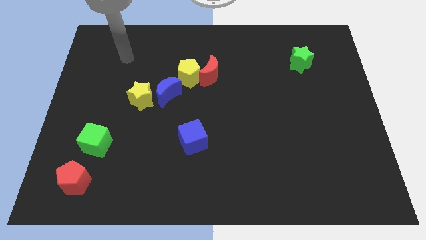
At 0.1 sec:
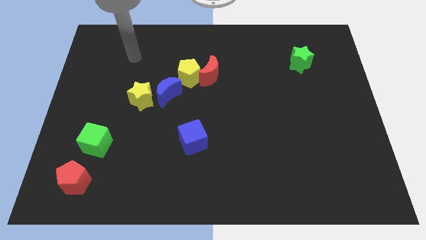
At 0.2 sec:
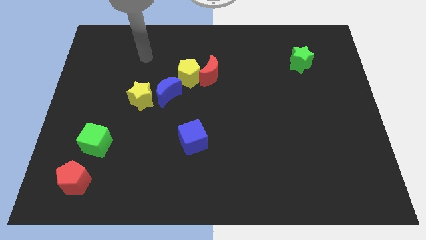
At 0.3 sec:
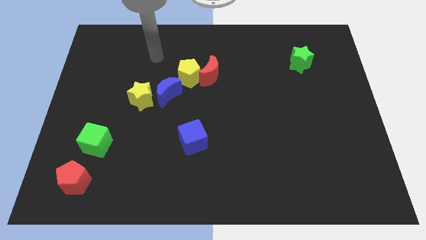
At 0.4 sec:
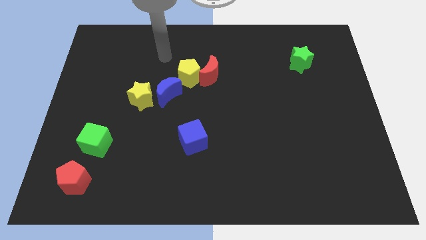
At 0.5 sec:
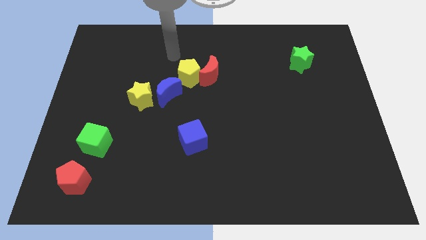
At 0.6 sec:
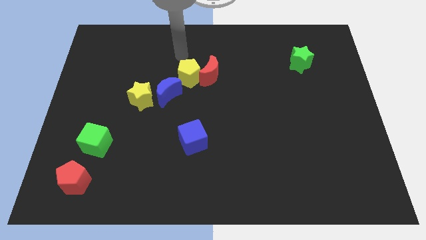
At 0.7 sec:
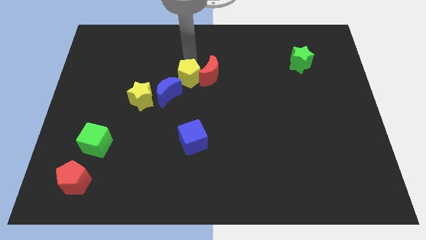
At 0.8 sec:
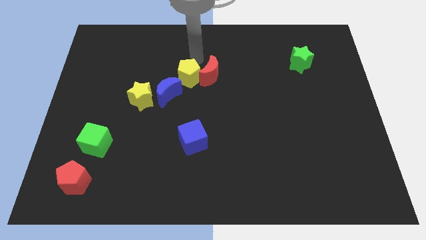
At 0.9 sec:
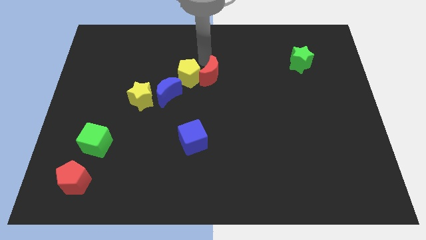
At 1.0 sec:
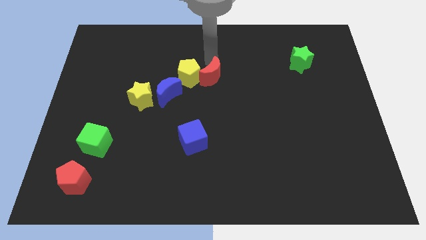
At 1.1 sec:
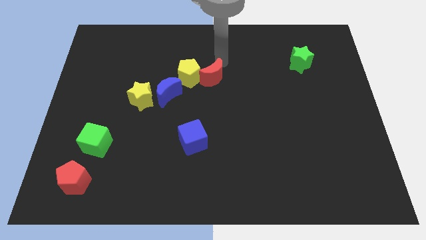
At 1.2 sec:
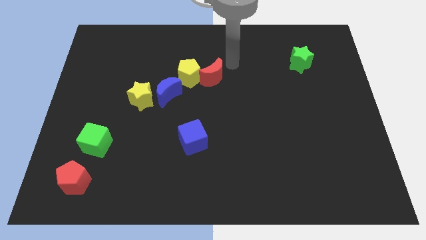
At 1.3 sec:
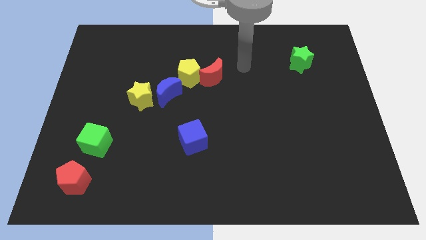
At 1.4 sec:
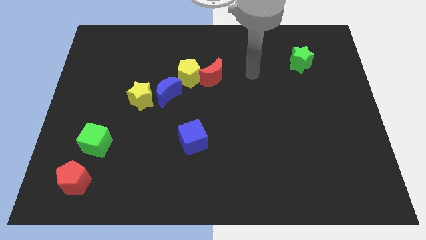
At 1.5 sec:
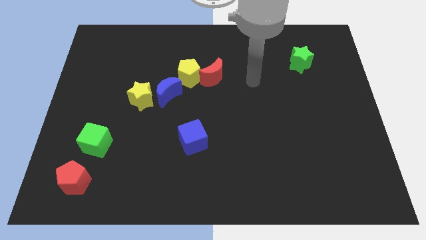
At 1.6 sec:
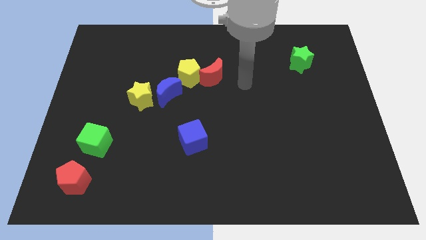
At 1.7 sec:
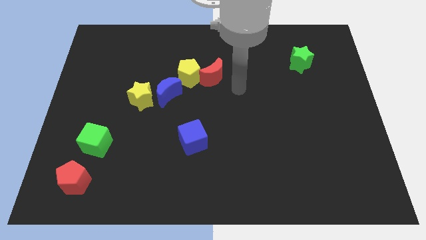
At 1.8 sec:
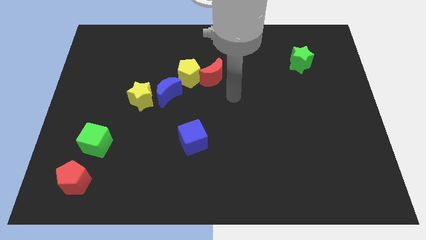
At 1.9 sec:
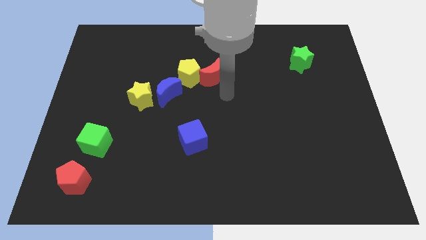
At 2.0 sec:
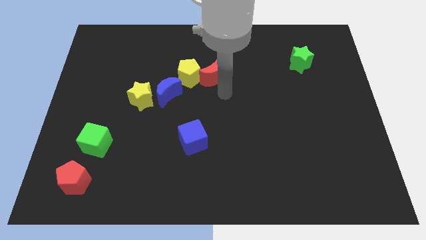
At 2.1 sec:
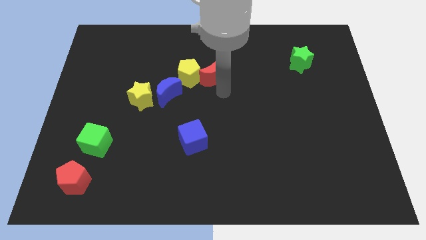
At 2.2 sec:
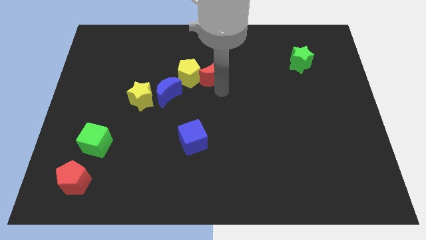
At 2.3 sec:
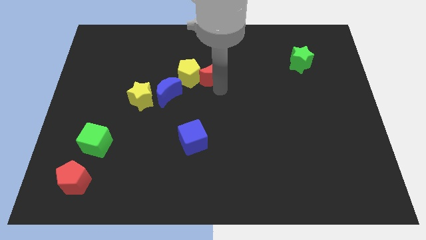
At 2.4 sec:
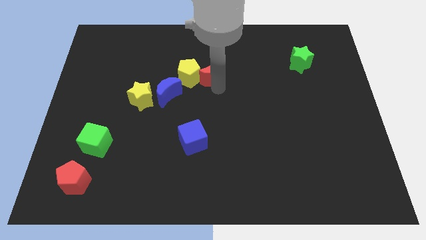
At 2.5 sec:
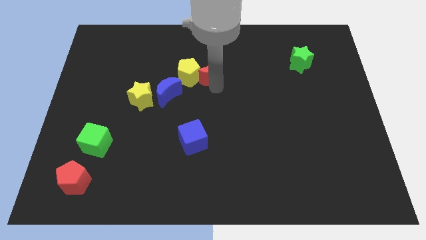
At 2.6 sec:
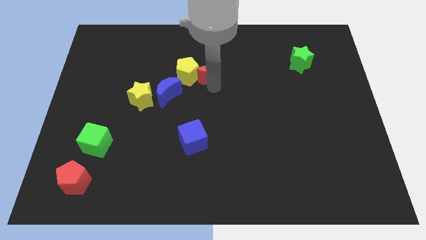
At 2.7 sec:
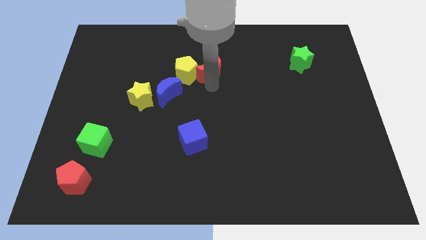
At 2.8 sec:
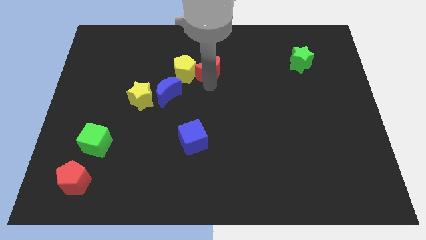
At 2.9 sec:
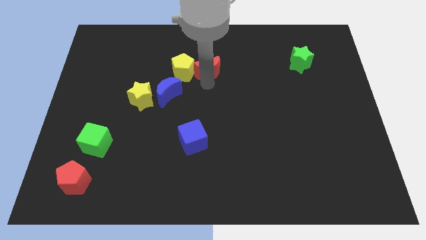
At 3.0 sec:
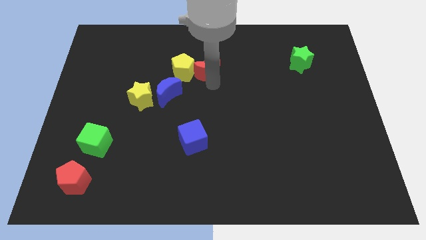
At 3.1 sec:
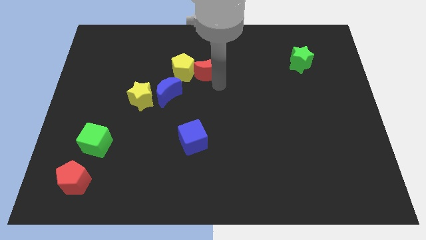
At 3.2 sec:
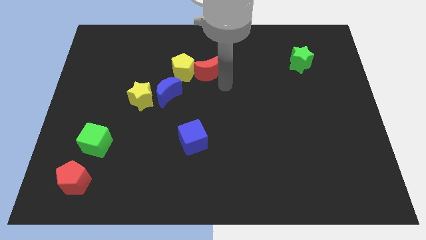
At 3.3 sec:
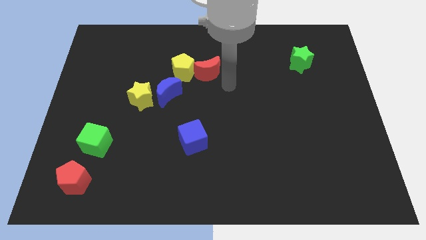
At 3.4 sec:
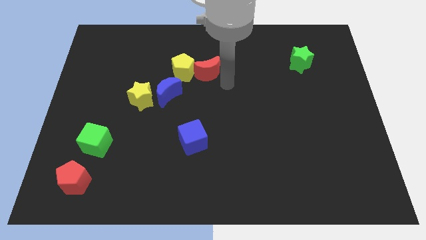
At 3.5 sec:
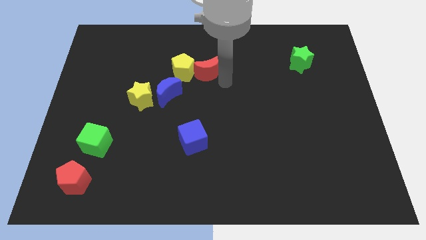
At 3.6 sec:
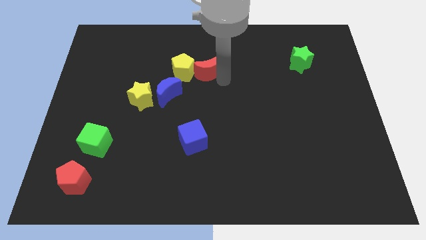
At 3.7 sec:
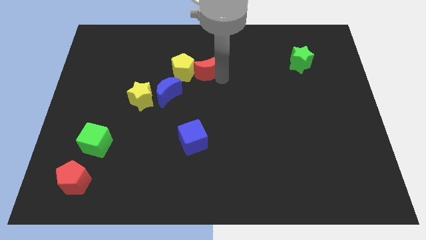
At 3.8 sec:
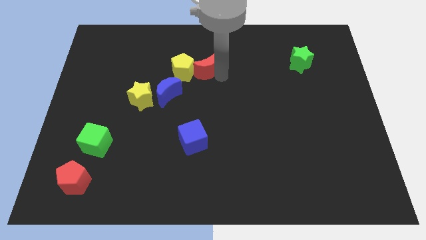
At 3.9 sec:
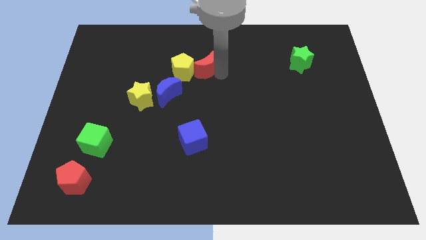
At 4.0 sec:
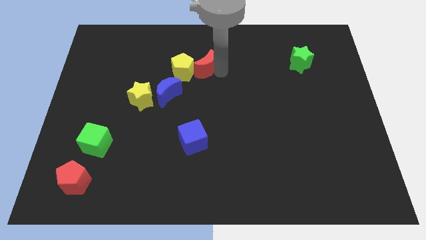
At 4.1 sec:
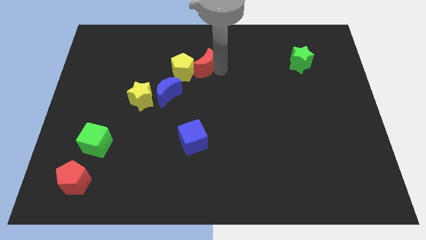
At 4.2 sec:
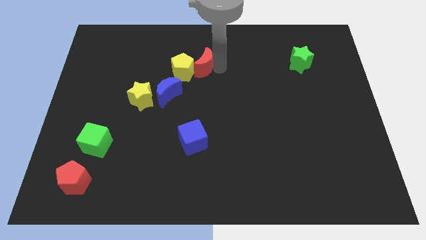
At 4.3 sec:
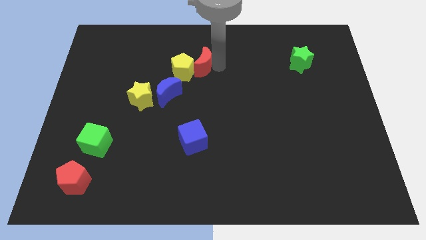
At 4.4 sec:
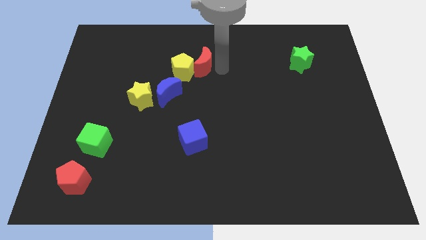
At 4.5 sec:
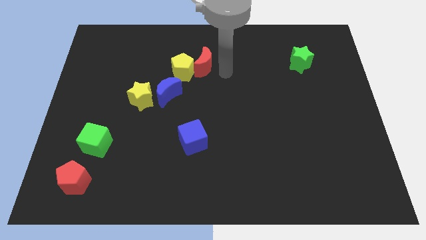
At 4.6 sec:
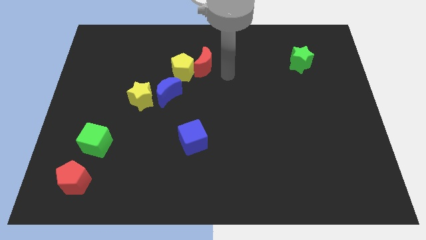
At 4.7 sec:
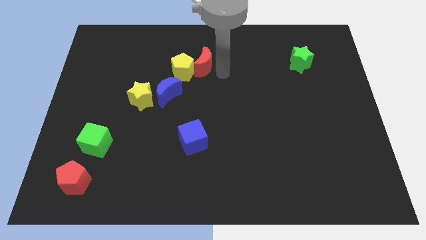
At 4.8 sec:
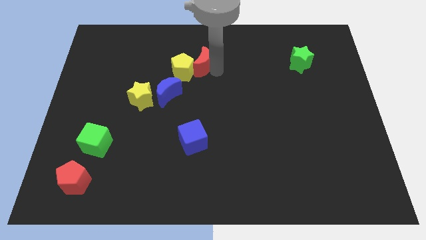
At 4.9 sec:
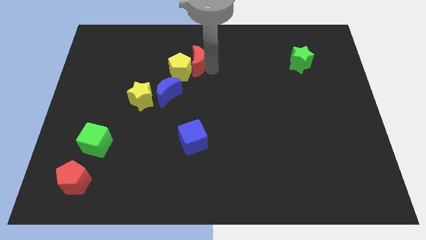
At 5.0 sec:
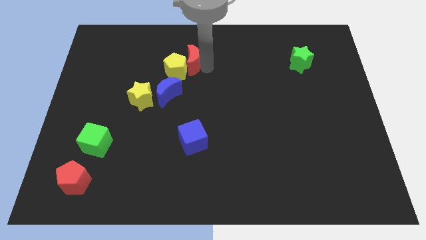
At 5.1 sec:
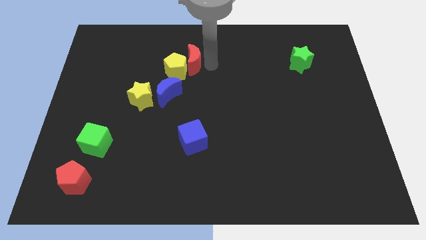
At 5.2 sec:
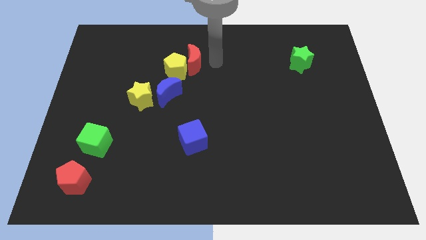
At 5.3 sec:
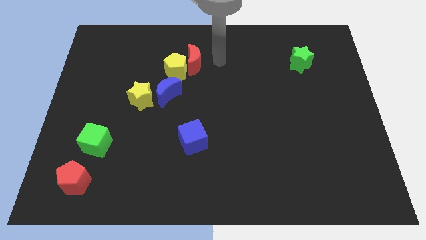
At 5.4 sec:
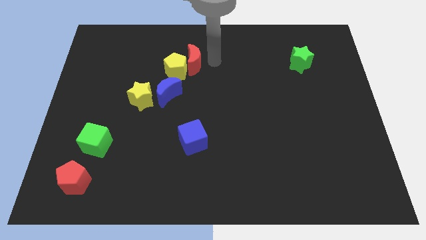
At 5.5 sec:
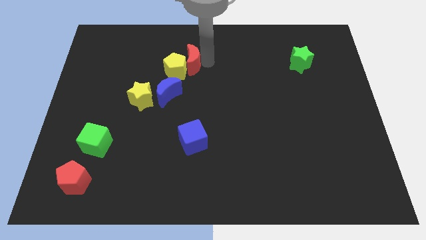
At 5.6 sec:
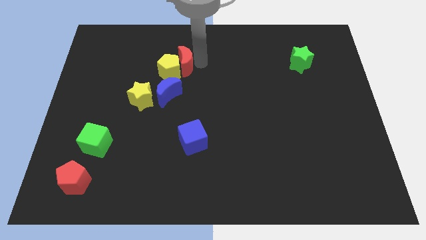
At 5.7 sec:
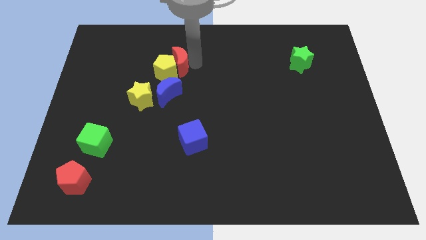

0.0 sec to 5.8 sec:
push the red moon to the left somewhat

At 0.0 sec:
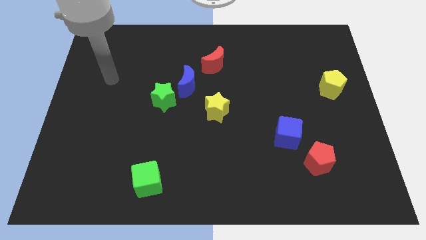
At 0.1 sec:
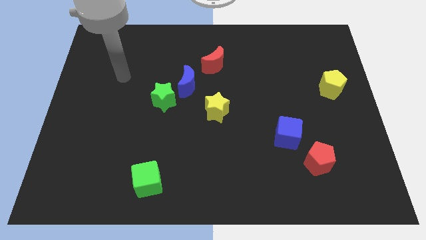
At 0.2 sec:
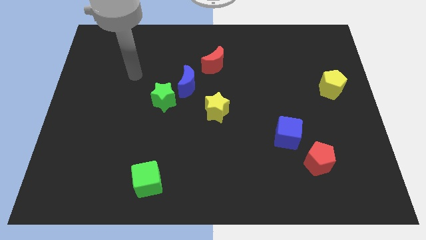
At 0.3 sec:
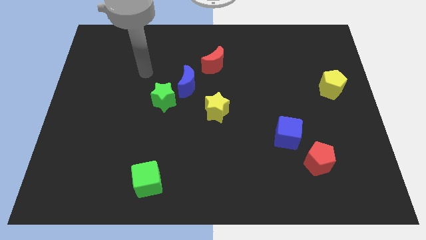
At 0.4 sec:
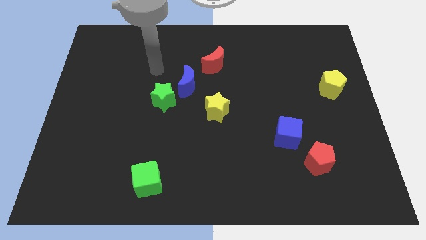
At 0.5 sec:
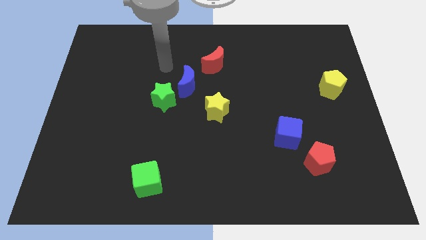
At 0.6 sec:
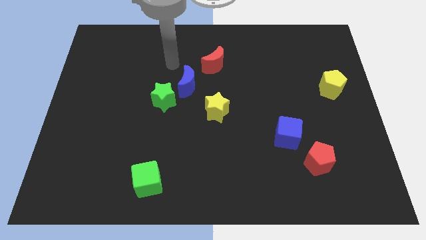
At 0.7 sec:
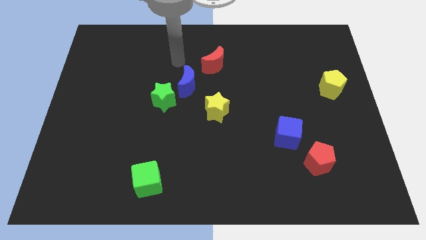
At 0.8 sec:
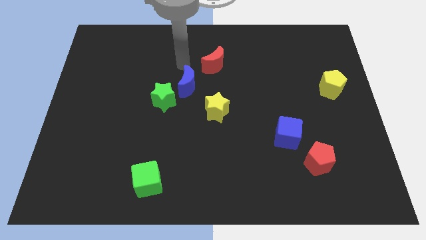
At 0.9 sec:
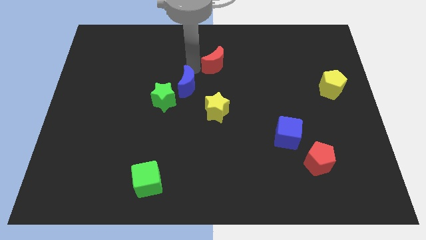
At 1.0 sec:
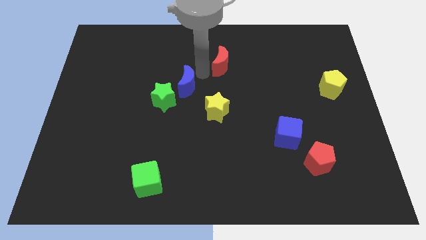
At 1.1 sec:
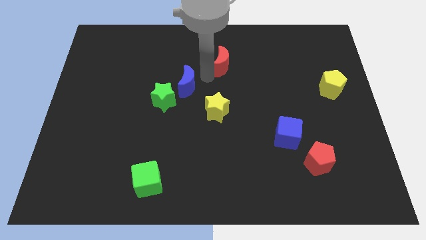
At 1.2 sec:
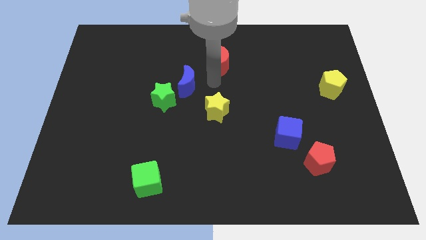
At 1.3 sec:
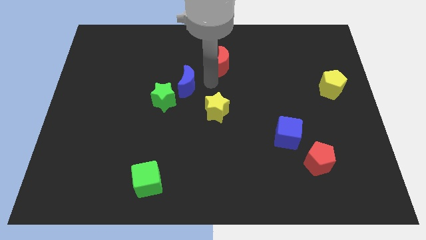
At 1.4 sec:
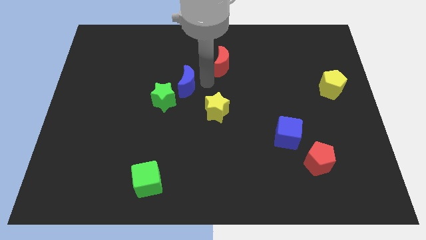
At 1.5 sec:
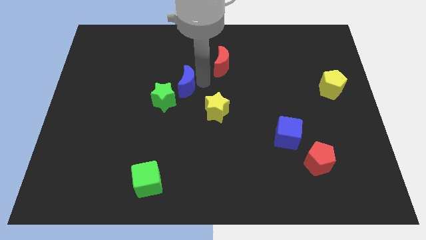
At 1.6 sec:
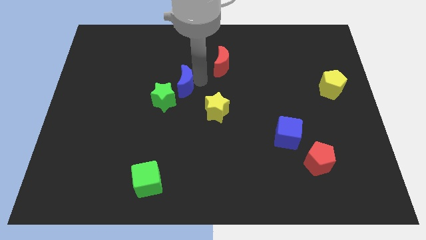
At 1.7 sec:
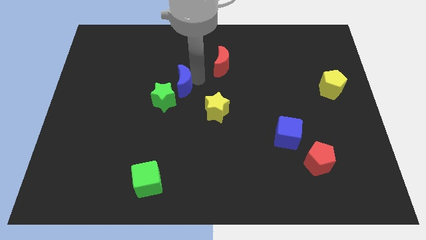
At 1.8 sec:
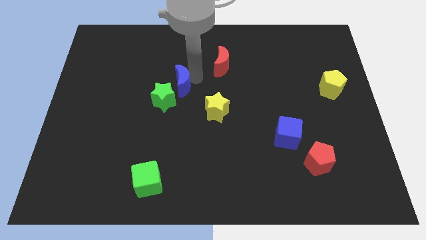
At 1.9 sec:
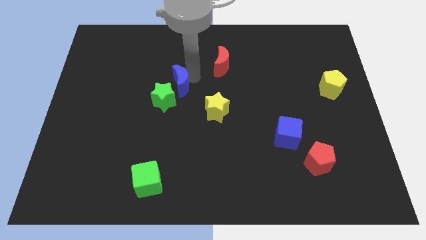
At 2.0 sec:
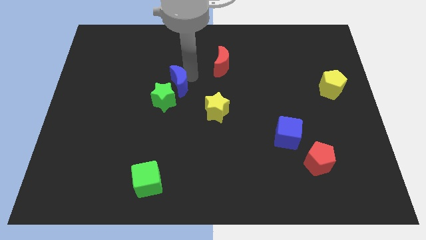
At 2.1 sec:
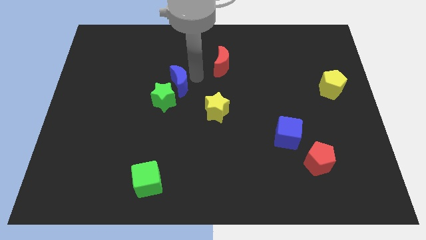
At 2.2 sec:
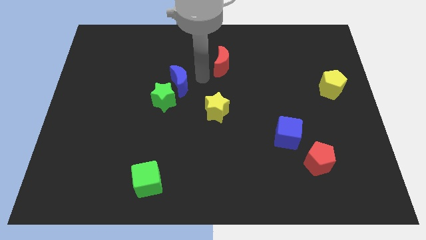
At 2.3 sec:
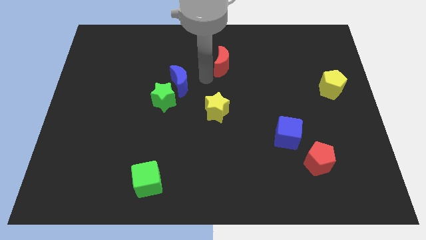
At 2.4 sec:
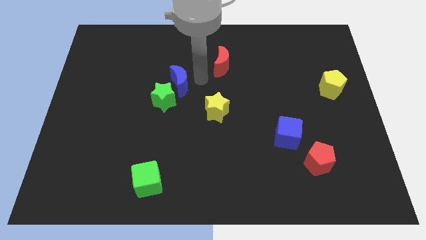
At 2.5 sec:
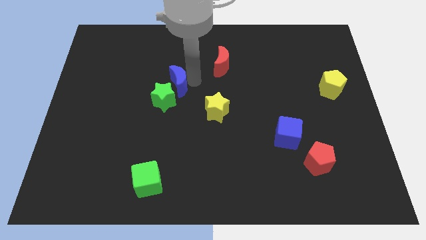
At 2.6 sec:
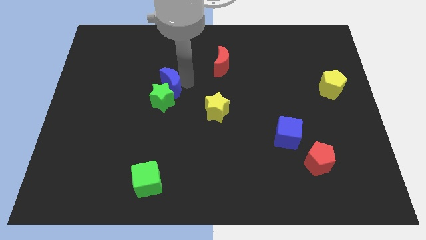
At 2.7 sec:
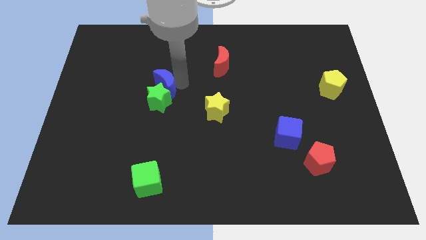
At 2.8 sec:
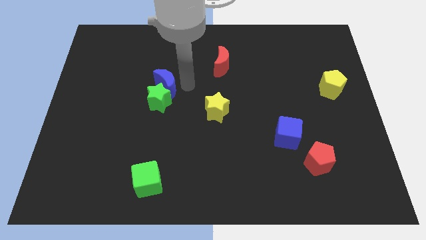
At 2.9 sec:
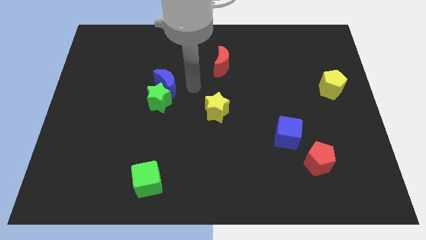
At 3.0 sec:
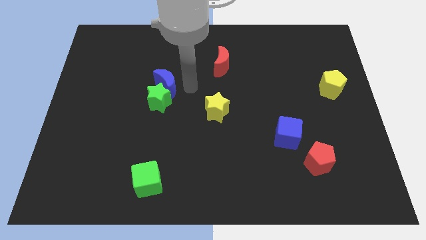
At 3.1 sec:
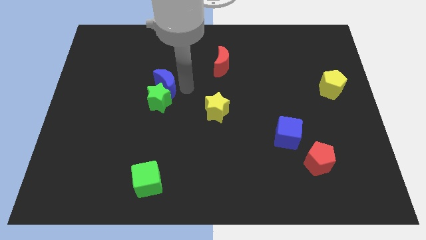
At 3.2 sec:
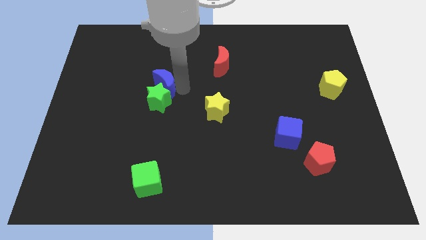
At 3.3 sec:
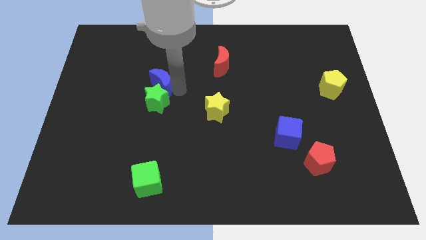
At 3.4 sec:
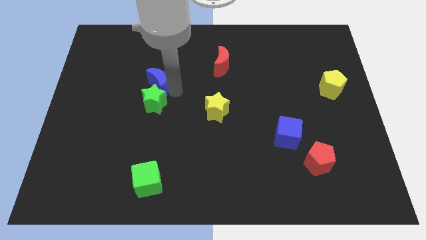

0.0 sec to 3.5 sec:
slightly slide the blue moon left
